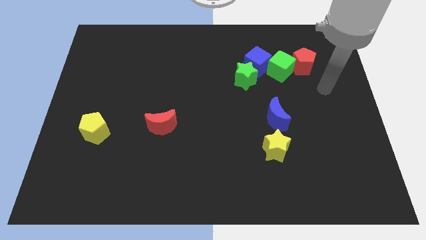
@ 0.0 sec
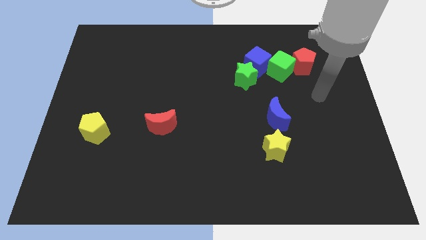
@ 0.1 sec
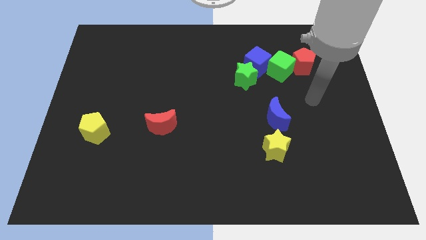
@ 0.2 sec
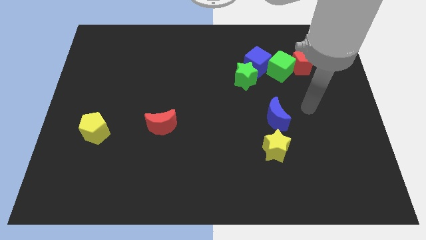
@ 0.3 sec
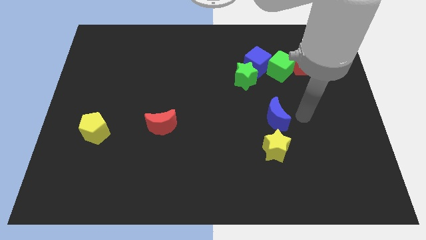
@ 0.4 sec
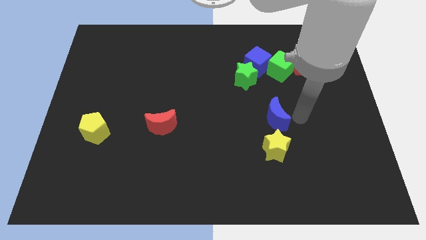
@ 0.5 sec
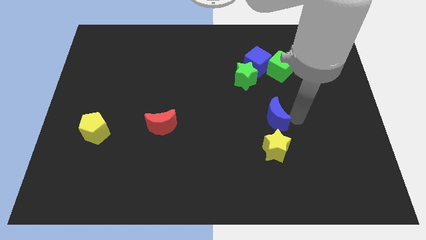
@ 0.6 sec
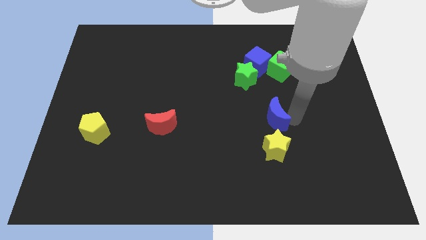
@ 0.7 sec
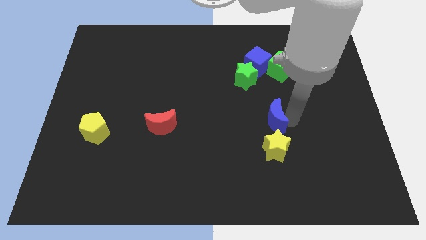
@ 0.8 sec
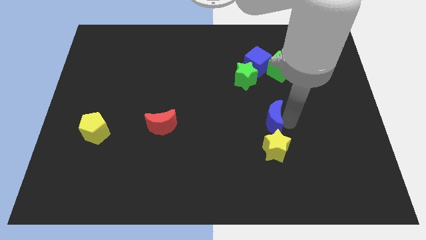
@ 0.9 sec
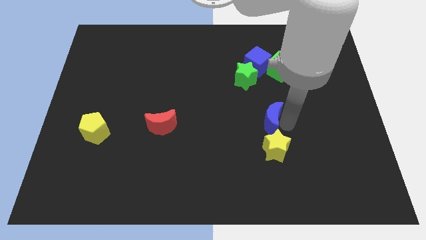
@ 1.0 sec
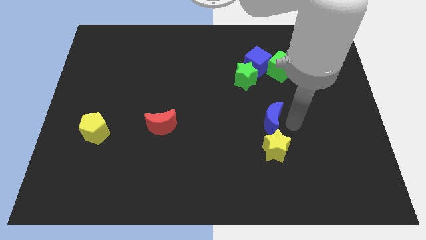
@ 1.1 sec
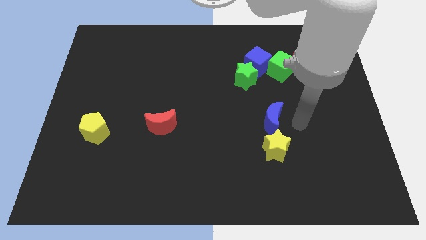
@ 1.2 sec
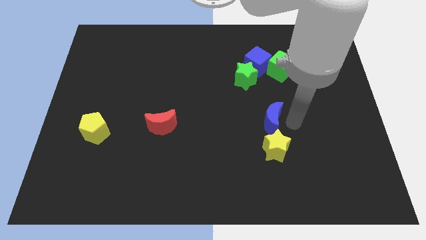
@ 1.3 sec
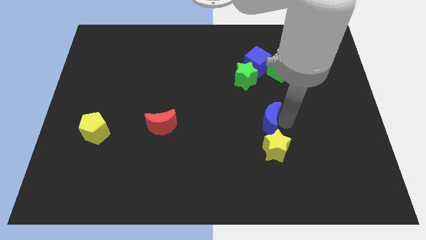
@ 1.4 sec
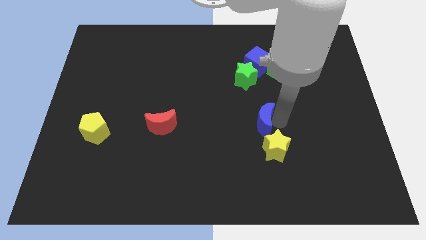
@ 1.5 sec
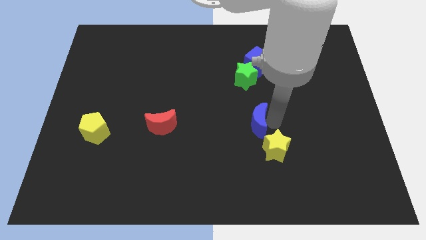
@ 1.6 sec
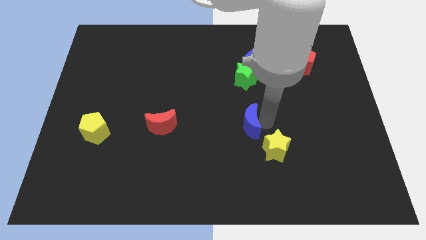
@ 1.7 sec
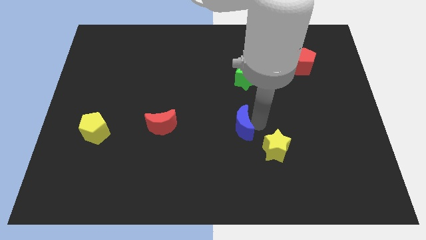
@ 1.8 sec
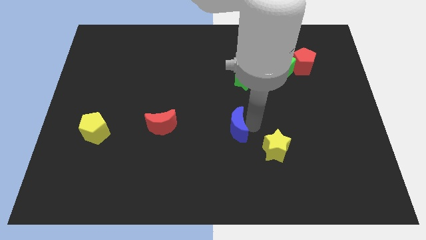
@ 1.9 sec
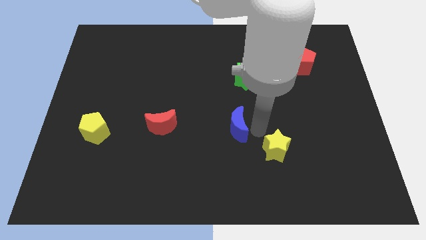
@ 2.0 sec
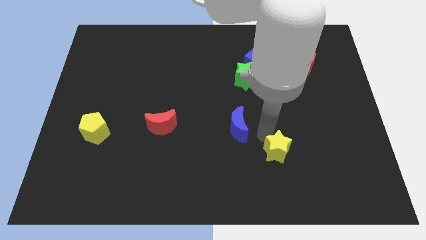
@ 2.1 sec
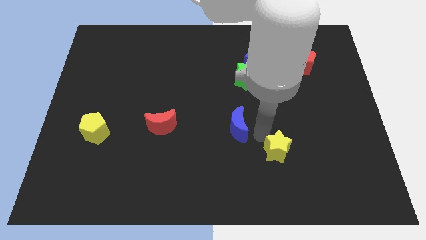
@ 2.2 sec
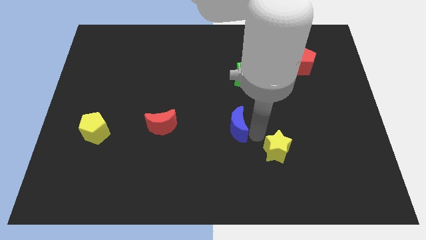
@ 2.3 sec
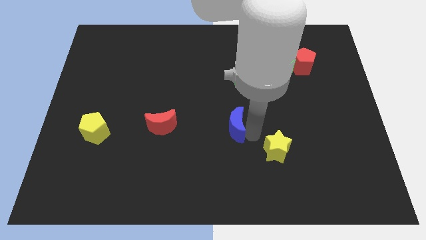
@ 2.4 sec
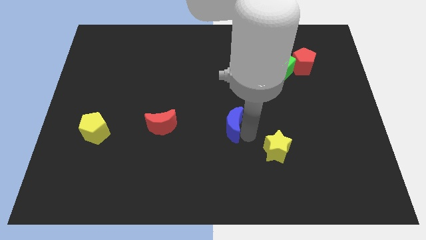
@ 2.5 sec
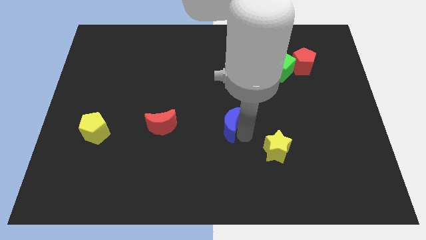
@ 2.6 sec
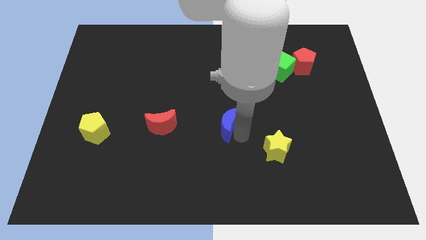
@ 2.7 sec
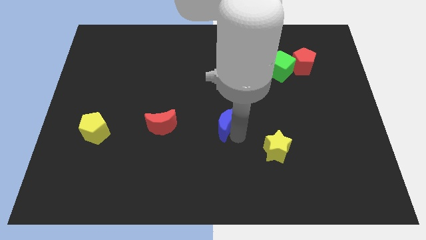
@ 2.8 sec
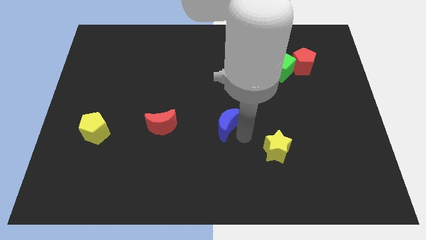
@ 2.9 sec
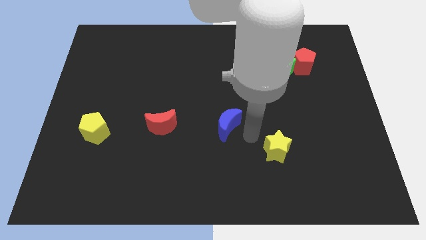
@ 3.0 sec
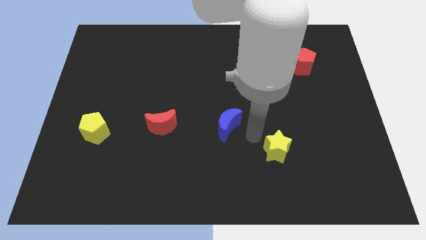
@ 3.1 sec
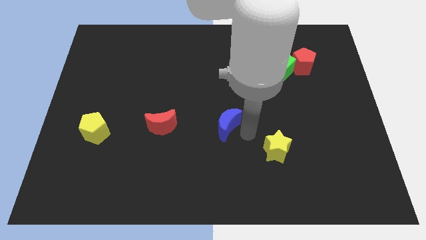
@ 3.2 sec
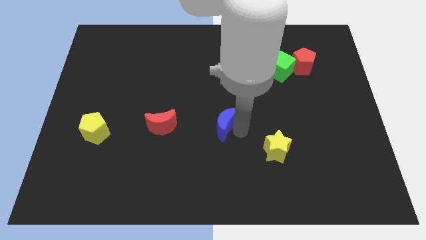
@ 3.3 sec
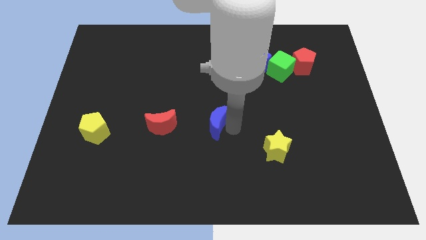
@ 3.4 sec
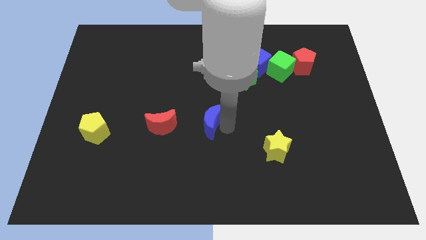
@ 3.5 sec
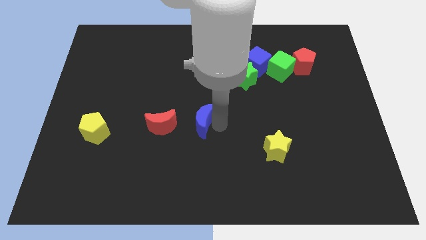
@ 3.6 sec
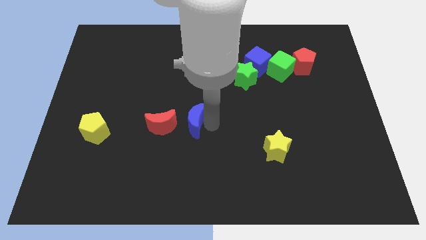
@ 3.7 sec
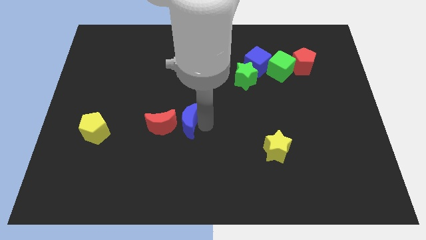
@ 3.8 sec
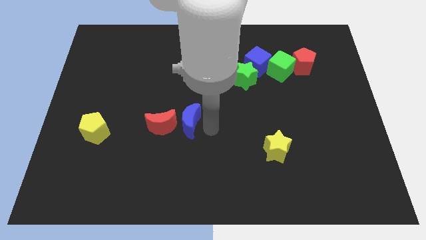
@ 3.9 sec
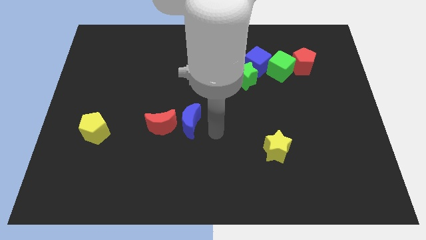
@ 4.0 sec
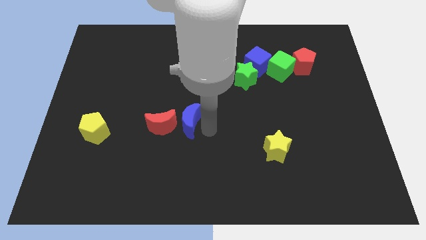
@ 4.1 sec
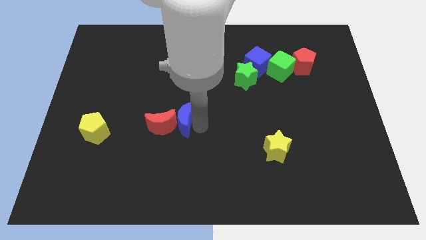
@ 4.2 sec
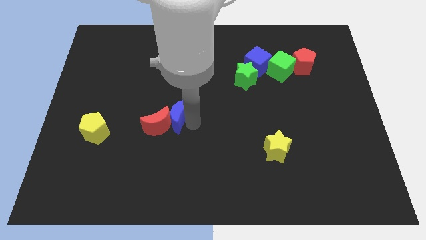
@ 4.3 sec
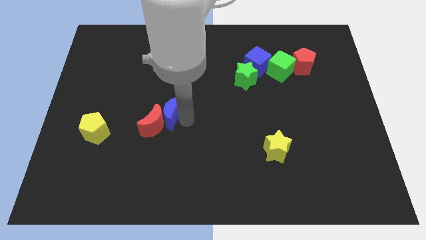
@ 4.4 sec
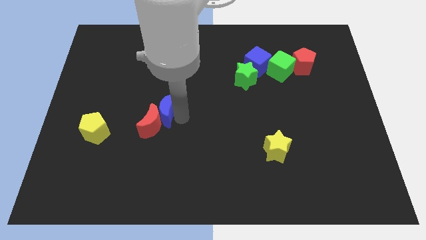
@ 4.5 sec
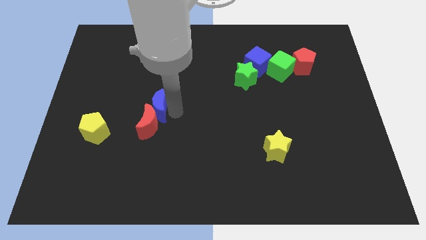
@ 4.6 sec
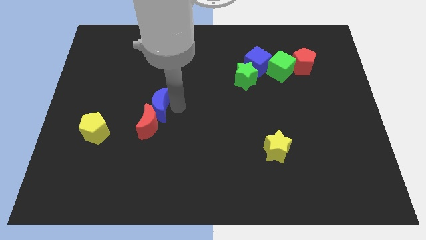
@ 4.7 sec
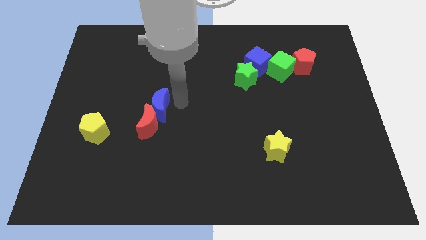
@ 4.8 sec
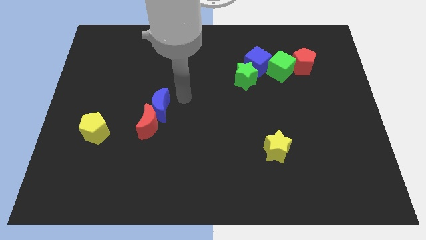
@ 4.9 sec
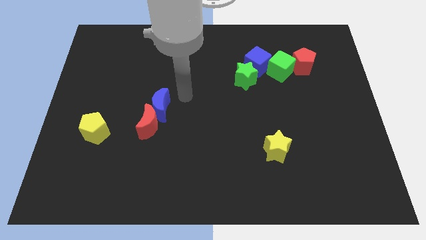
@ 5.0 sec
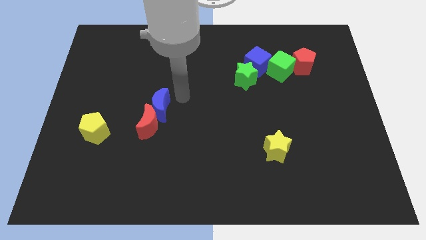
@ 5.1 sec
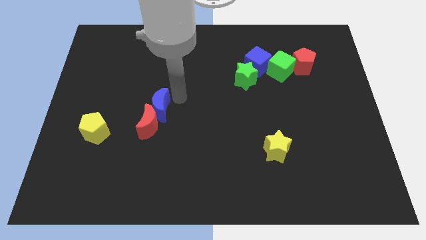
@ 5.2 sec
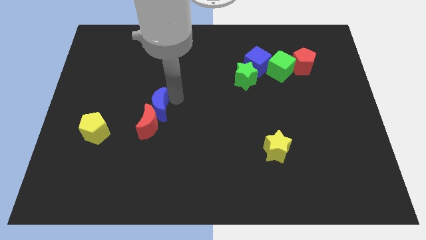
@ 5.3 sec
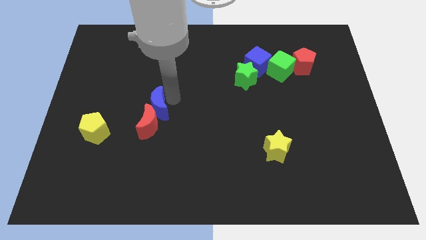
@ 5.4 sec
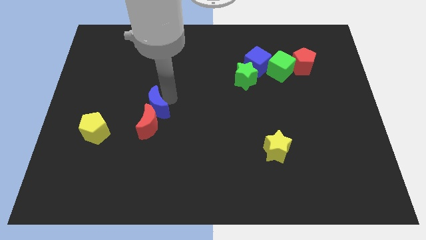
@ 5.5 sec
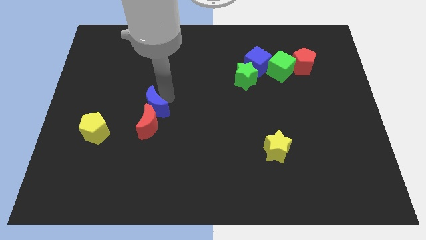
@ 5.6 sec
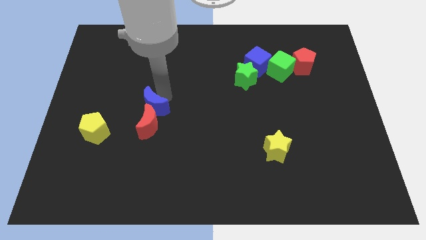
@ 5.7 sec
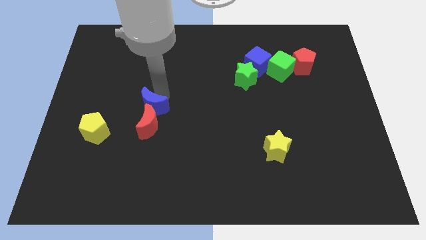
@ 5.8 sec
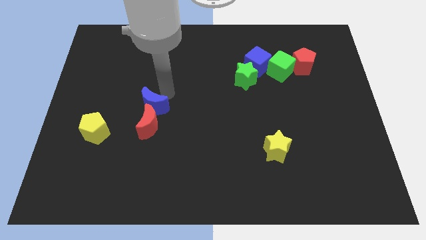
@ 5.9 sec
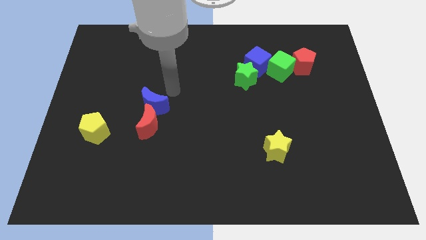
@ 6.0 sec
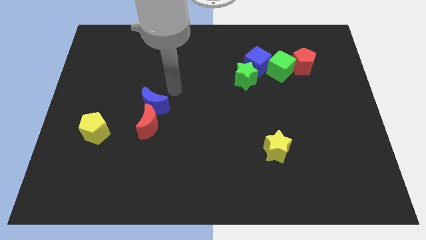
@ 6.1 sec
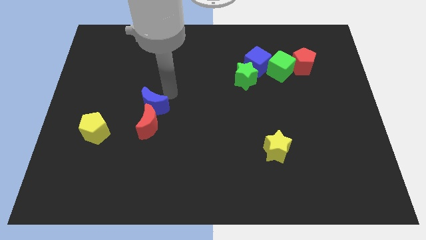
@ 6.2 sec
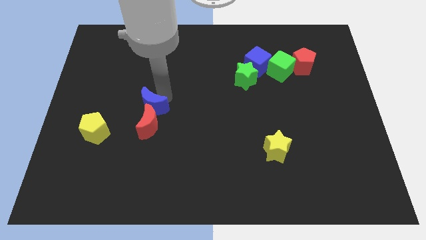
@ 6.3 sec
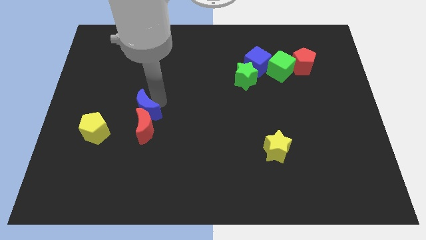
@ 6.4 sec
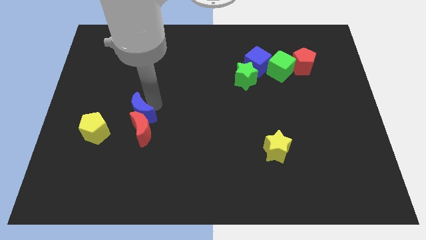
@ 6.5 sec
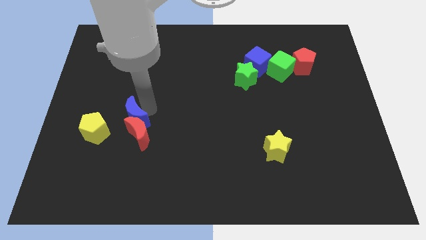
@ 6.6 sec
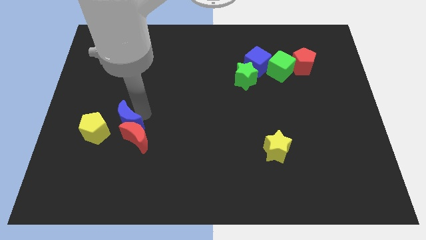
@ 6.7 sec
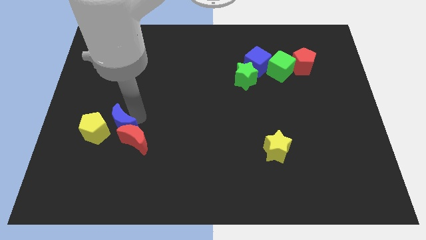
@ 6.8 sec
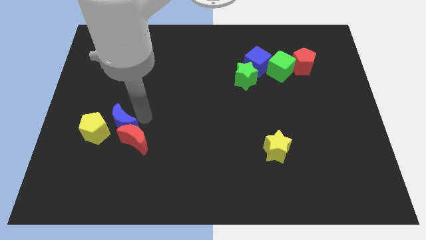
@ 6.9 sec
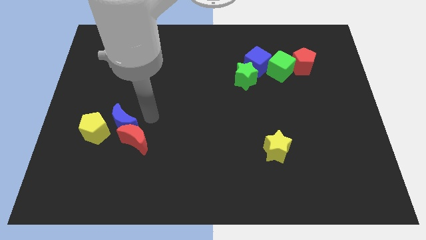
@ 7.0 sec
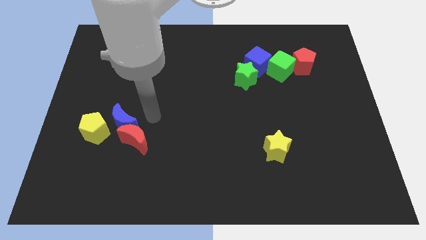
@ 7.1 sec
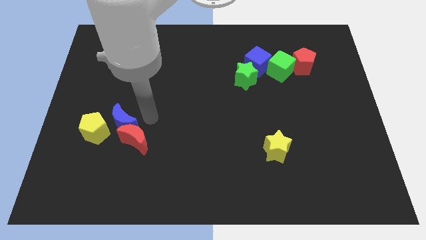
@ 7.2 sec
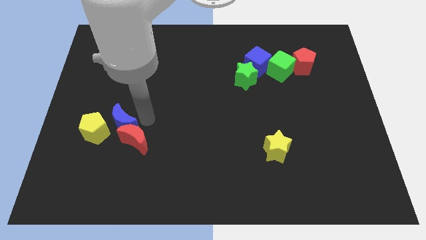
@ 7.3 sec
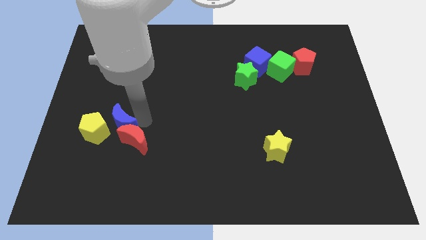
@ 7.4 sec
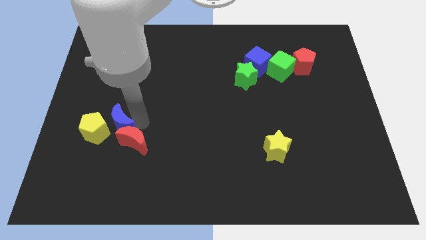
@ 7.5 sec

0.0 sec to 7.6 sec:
slide the blue moon towards the yellow pentagon
